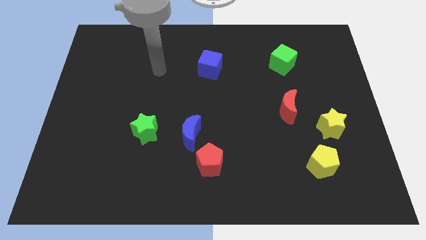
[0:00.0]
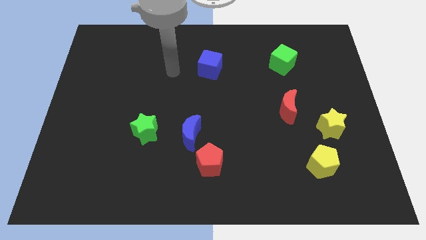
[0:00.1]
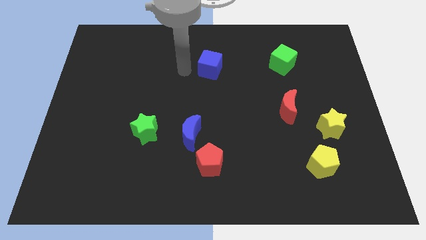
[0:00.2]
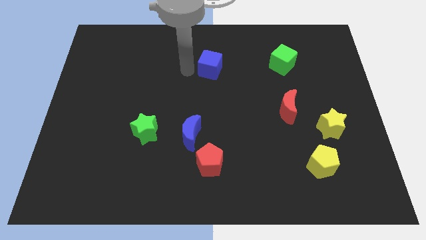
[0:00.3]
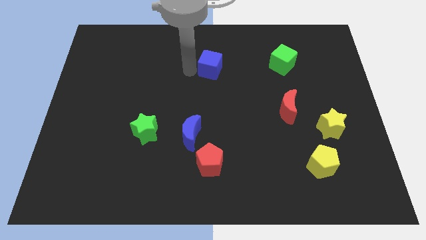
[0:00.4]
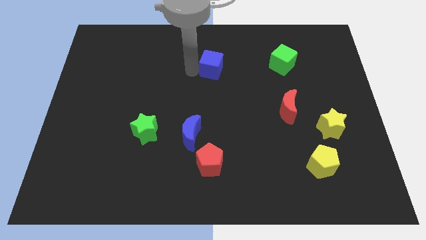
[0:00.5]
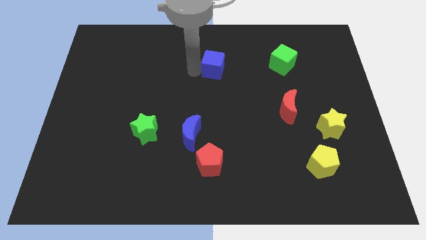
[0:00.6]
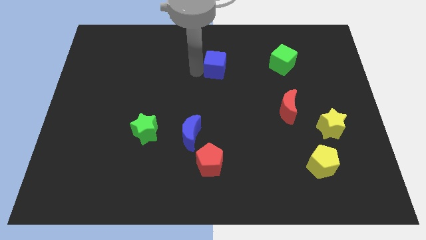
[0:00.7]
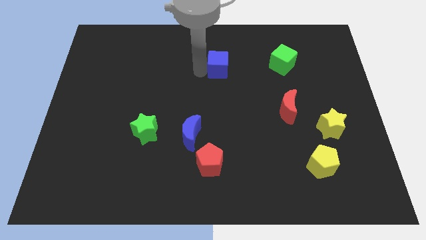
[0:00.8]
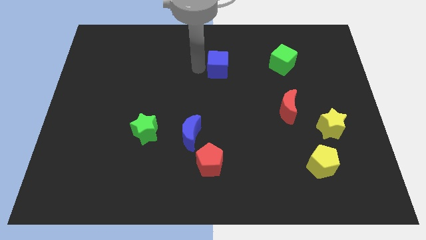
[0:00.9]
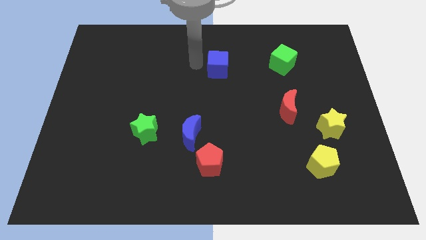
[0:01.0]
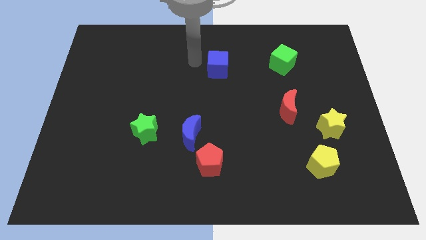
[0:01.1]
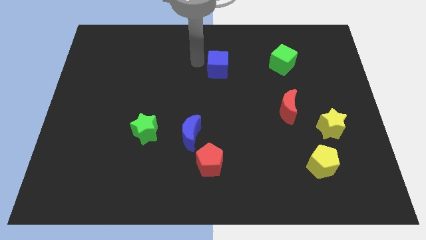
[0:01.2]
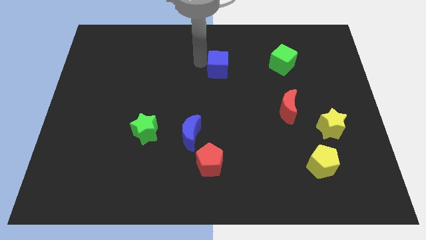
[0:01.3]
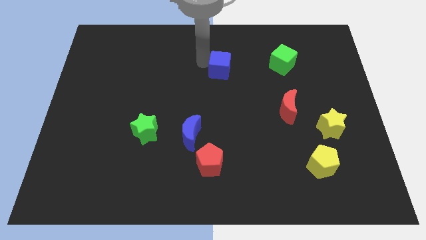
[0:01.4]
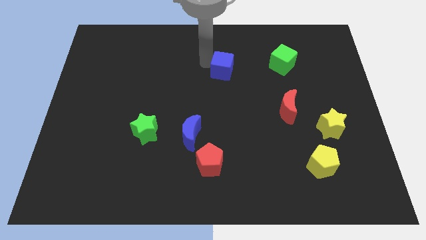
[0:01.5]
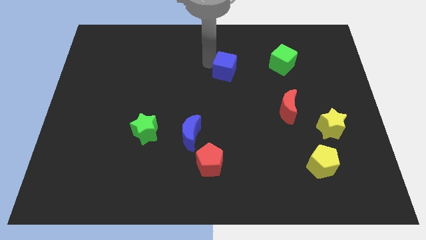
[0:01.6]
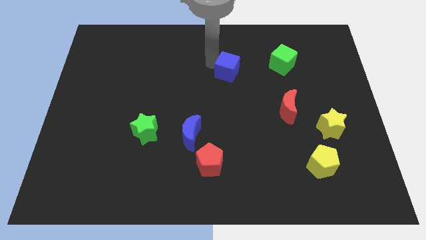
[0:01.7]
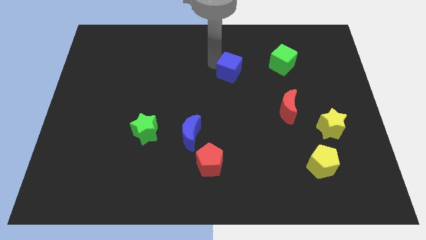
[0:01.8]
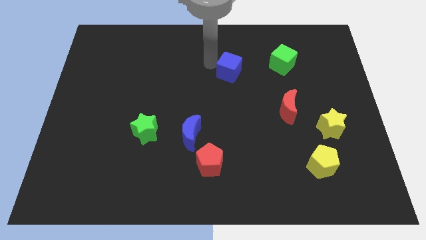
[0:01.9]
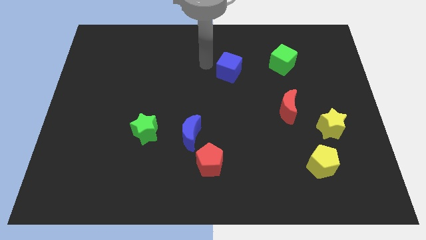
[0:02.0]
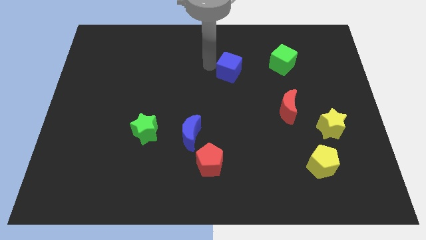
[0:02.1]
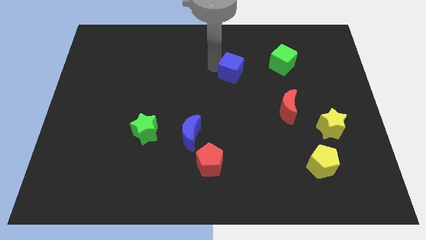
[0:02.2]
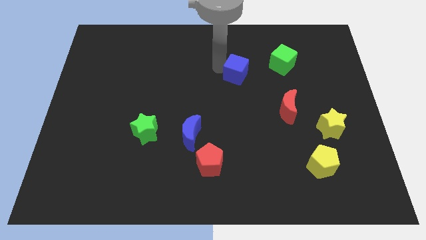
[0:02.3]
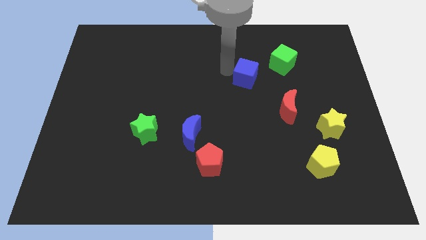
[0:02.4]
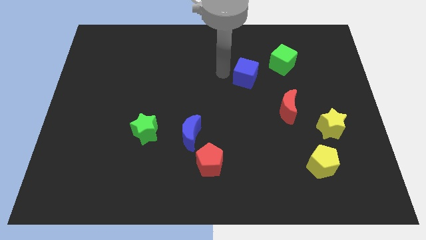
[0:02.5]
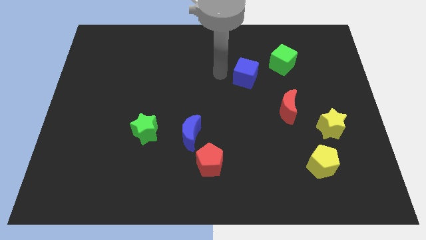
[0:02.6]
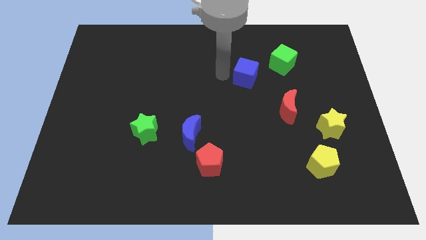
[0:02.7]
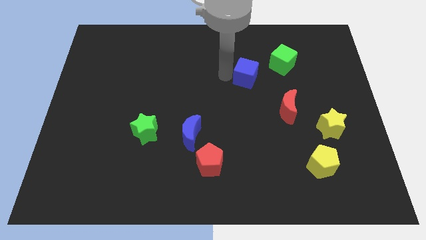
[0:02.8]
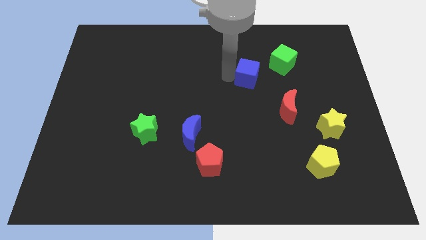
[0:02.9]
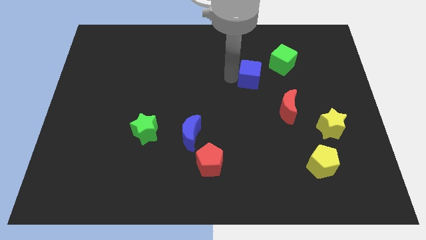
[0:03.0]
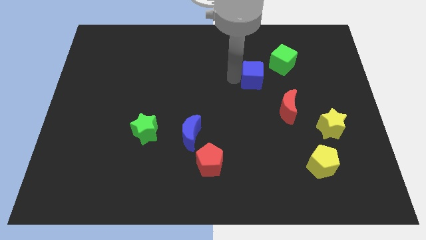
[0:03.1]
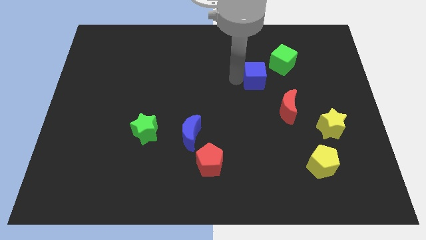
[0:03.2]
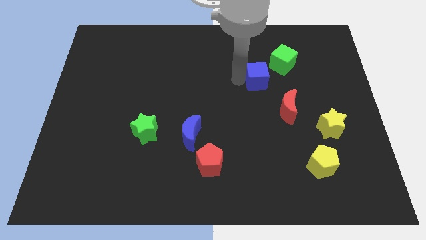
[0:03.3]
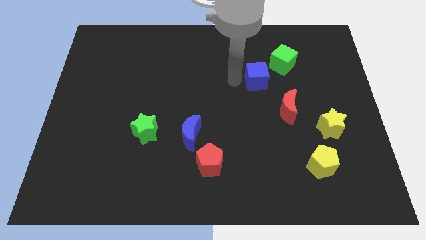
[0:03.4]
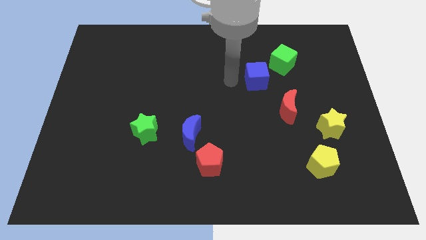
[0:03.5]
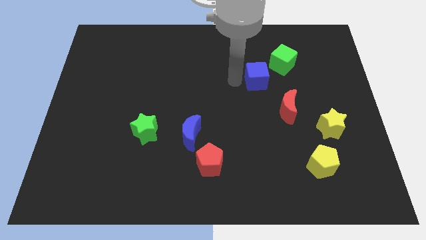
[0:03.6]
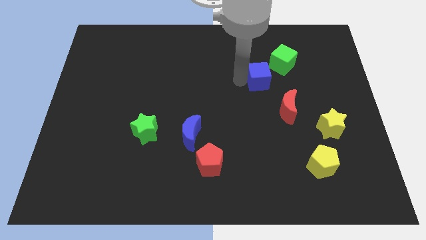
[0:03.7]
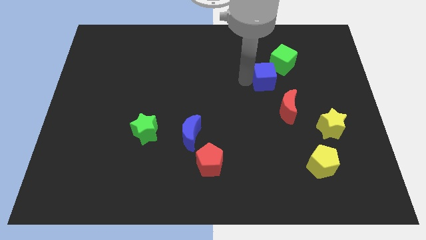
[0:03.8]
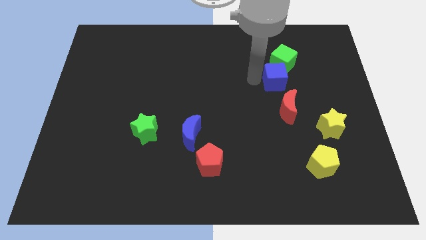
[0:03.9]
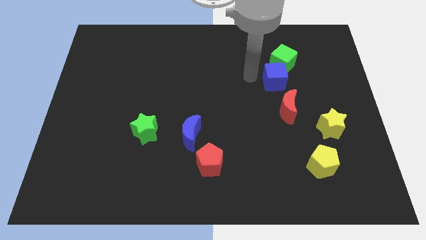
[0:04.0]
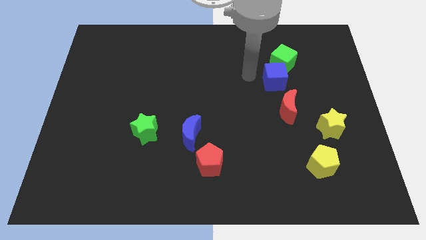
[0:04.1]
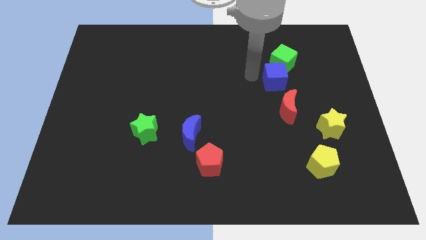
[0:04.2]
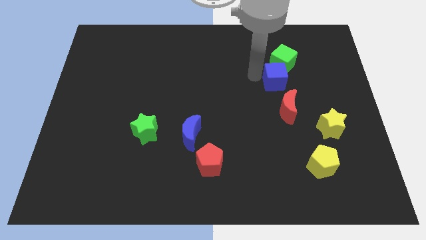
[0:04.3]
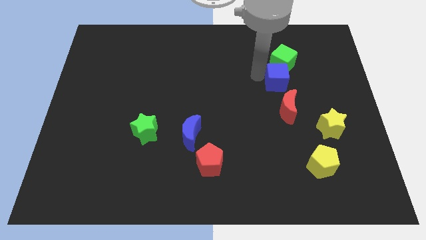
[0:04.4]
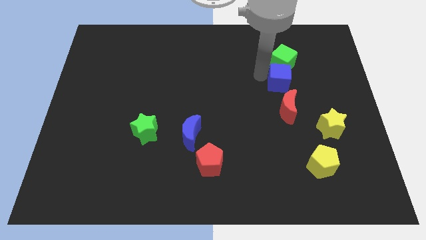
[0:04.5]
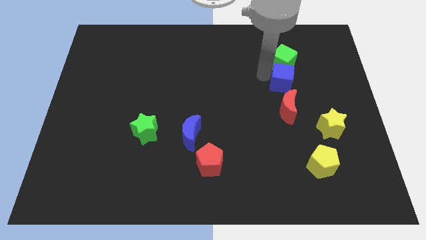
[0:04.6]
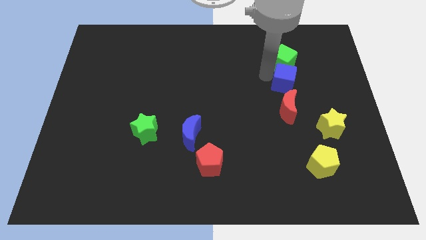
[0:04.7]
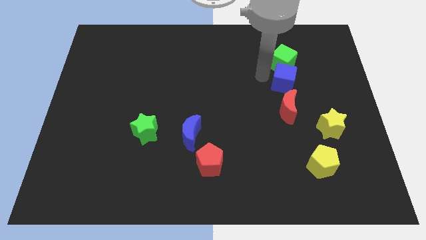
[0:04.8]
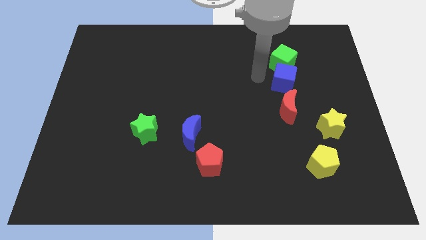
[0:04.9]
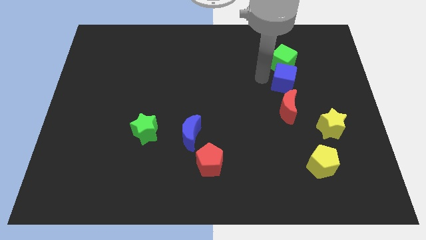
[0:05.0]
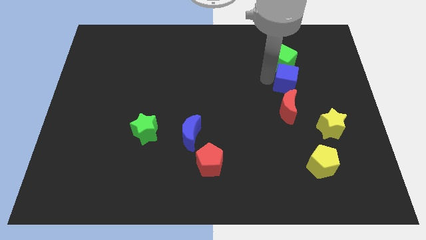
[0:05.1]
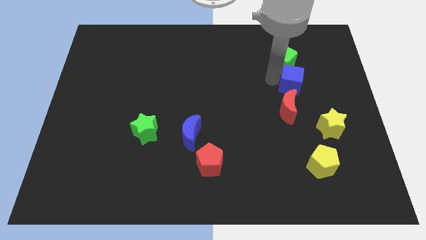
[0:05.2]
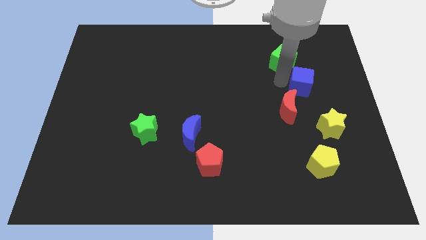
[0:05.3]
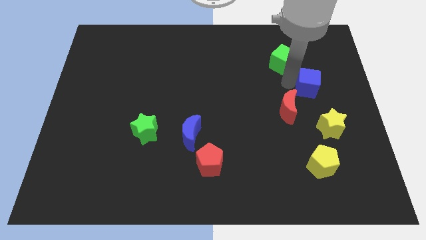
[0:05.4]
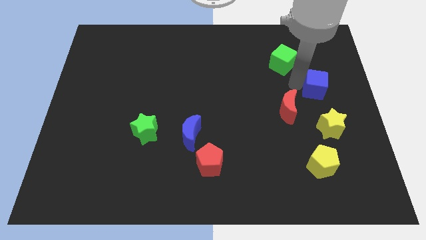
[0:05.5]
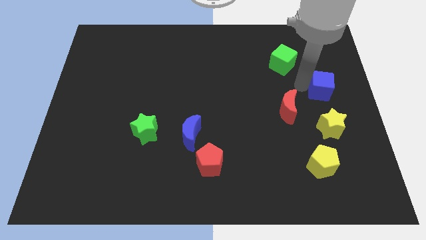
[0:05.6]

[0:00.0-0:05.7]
put the blue cube to the right side

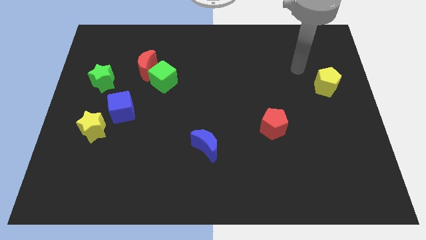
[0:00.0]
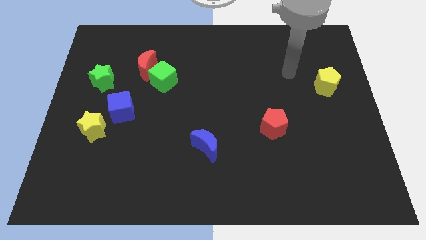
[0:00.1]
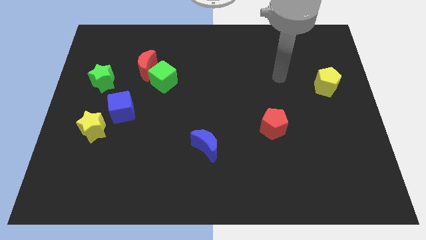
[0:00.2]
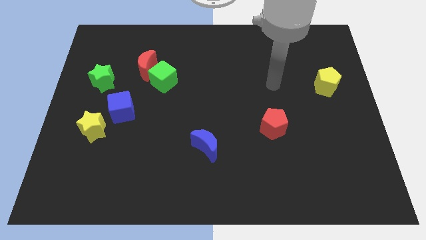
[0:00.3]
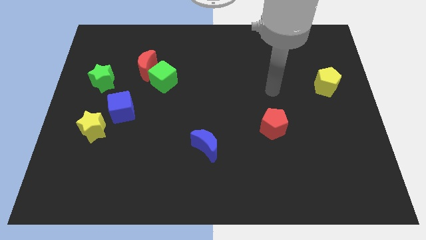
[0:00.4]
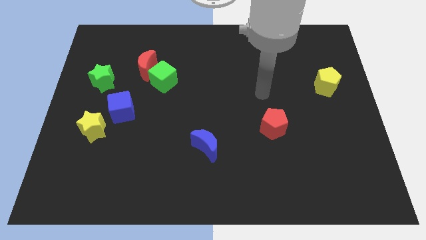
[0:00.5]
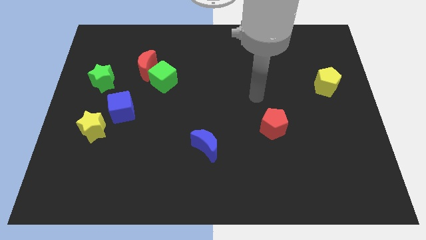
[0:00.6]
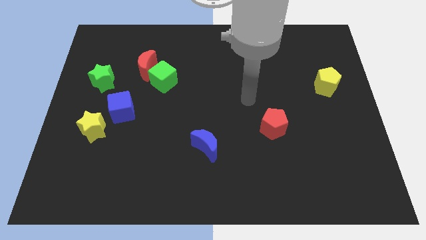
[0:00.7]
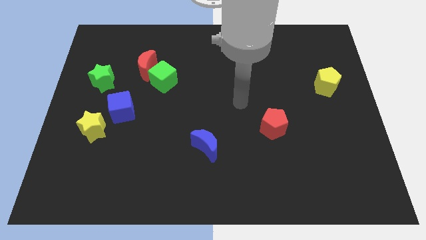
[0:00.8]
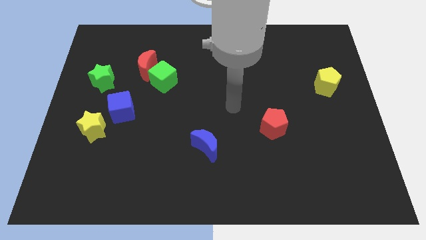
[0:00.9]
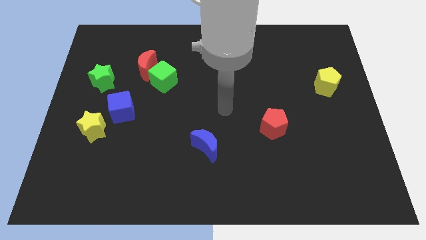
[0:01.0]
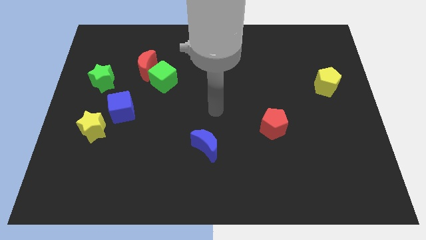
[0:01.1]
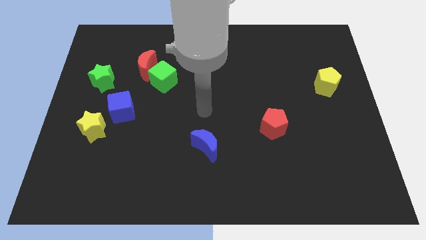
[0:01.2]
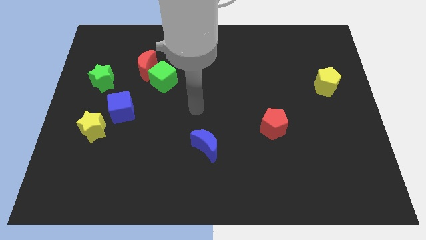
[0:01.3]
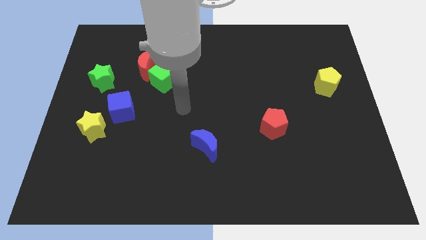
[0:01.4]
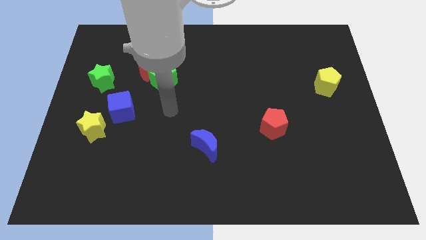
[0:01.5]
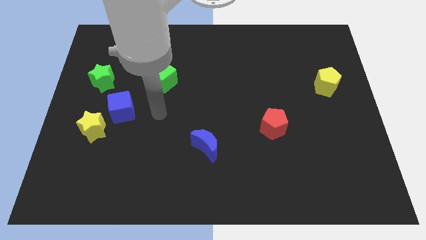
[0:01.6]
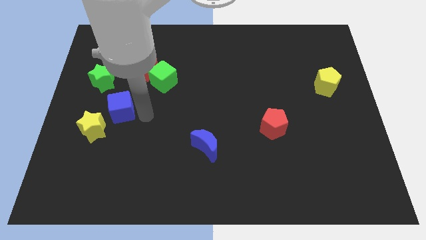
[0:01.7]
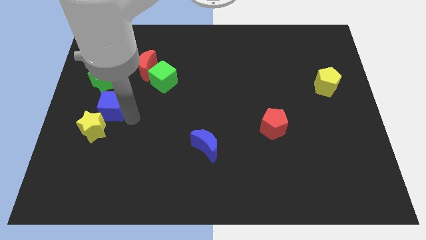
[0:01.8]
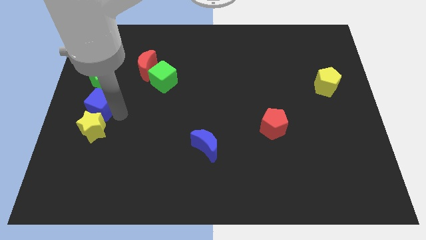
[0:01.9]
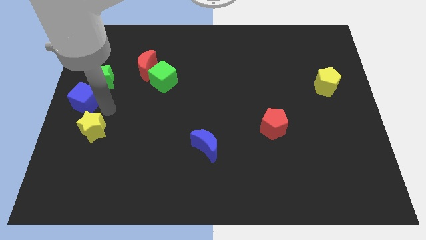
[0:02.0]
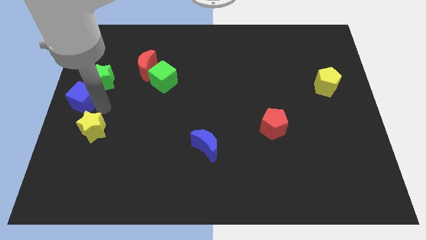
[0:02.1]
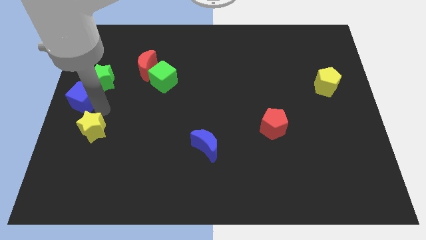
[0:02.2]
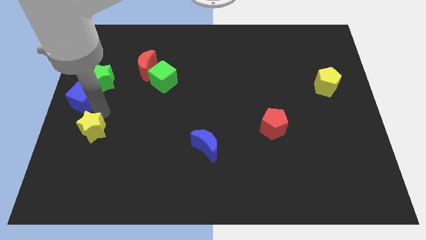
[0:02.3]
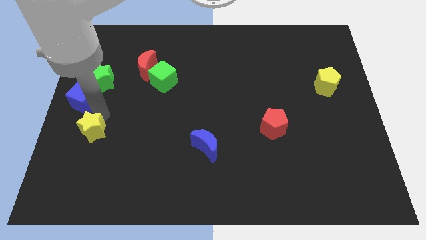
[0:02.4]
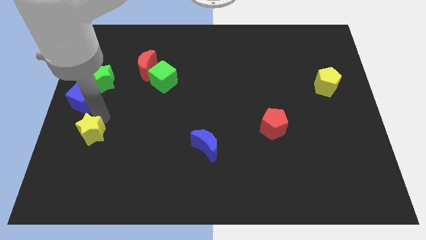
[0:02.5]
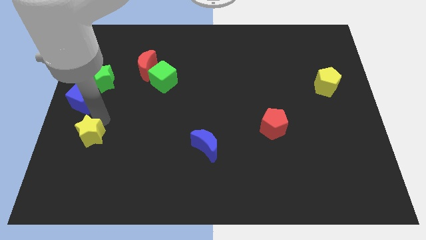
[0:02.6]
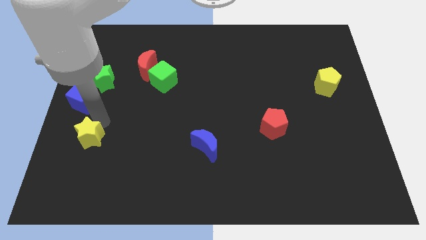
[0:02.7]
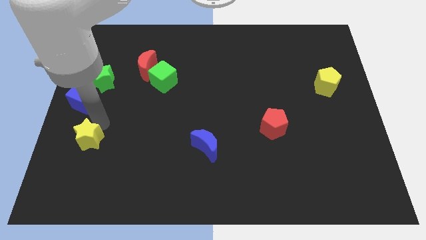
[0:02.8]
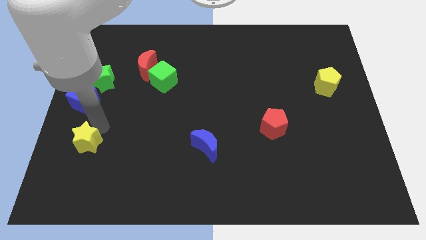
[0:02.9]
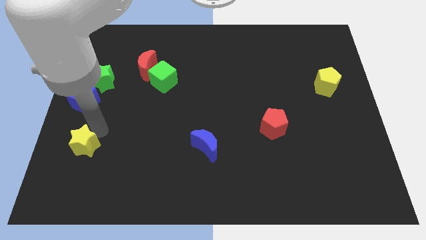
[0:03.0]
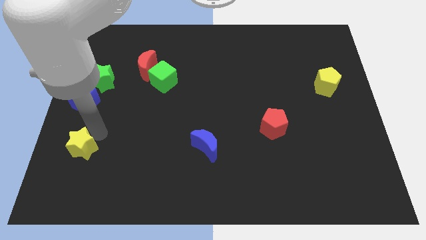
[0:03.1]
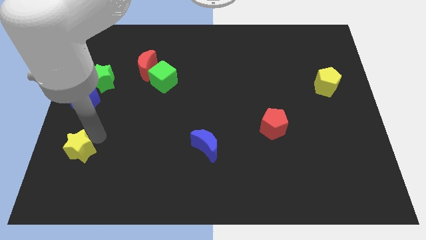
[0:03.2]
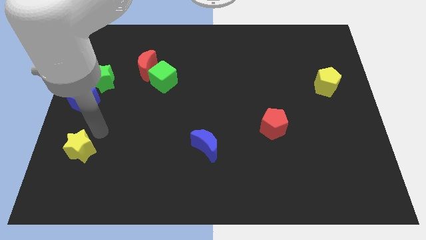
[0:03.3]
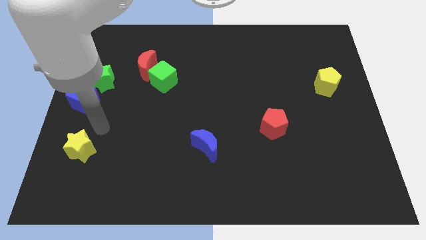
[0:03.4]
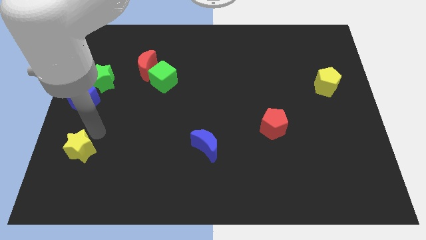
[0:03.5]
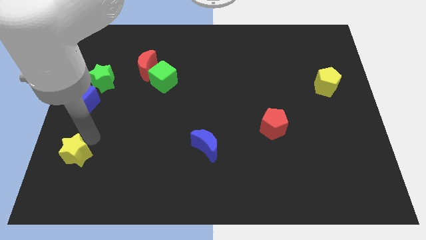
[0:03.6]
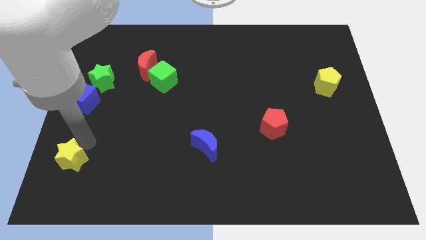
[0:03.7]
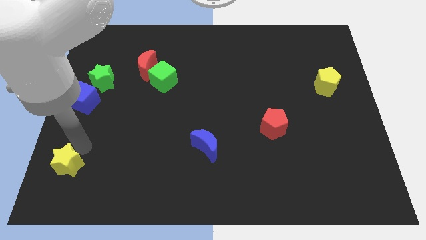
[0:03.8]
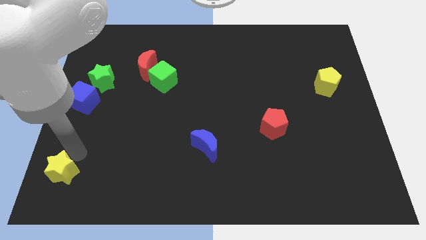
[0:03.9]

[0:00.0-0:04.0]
put the yellow star to the bottom left of the board
